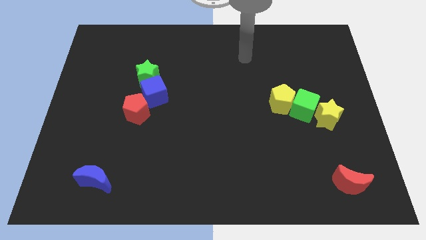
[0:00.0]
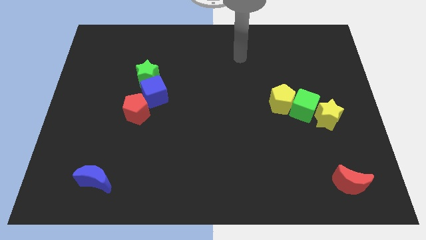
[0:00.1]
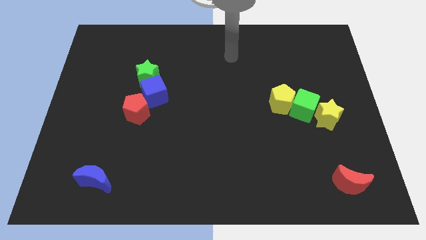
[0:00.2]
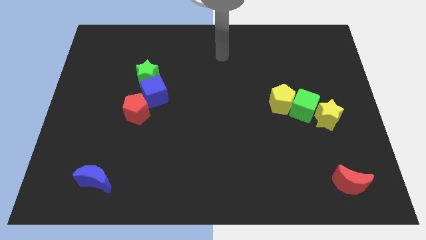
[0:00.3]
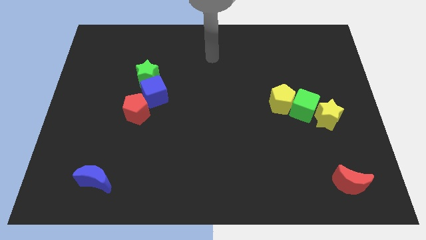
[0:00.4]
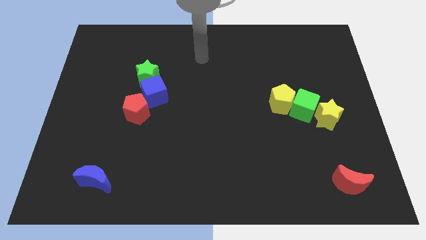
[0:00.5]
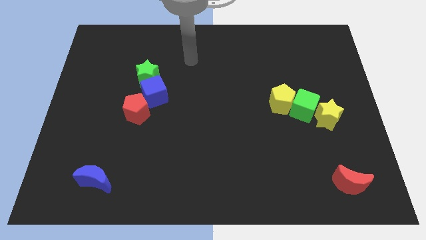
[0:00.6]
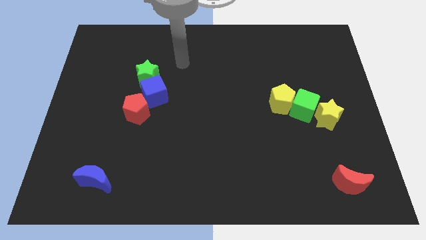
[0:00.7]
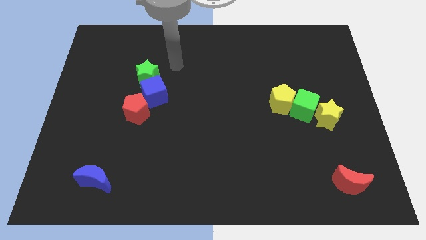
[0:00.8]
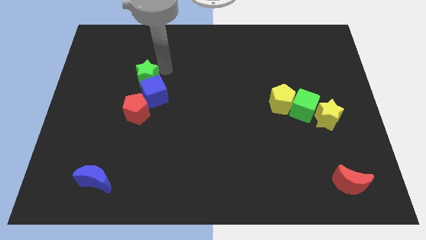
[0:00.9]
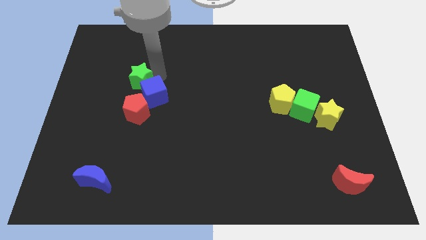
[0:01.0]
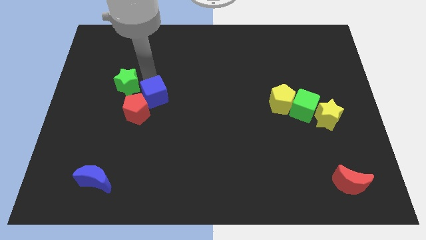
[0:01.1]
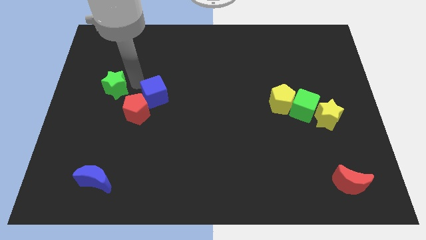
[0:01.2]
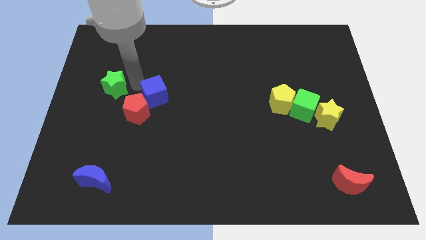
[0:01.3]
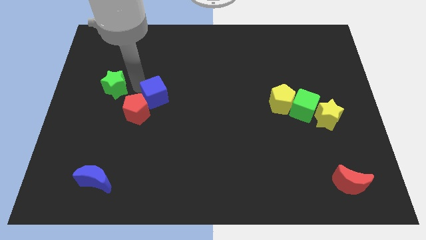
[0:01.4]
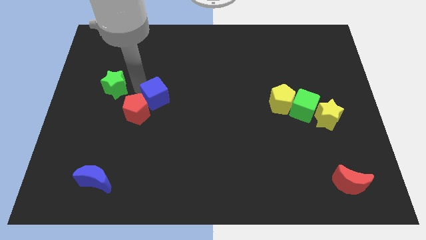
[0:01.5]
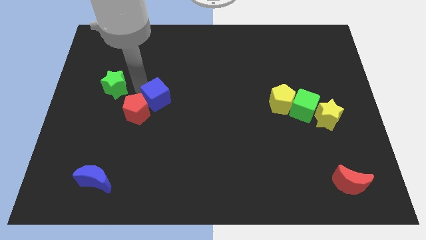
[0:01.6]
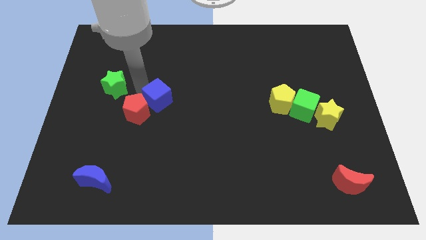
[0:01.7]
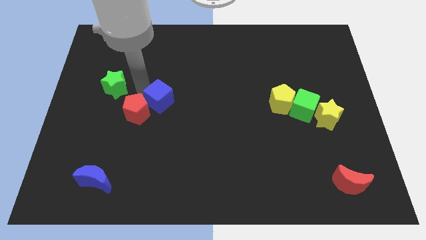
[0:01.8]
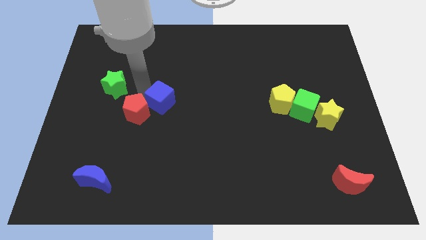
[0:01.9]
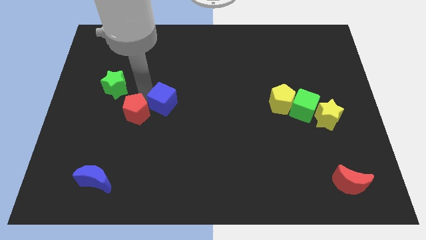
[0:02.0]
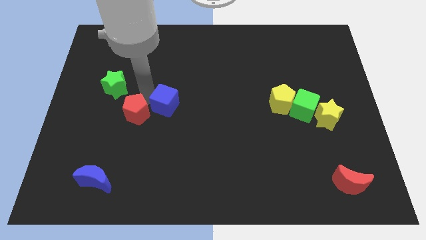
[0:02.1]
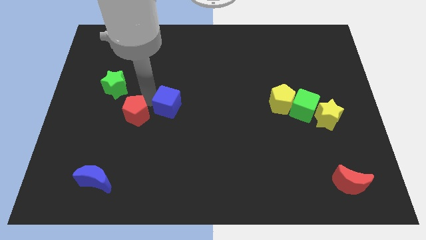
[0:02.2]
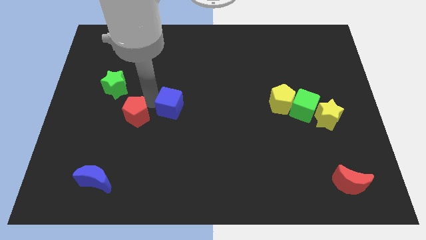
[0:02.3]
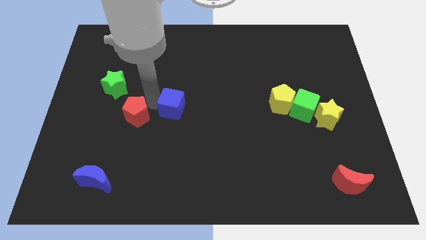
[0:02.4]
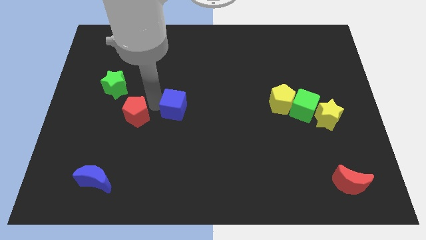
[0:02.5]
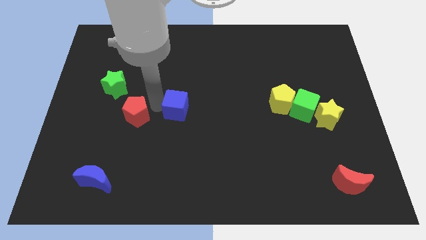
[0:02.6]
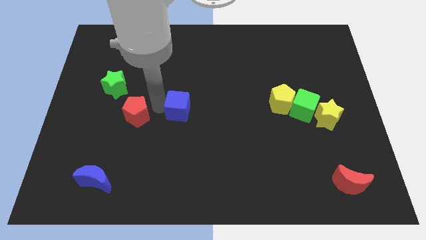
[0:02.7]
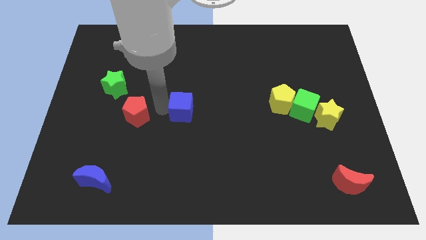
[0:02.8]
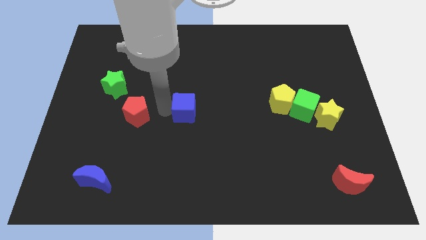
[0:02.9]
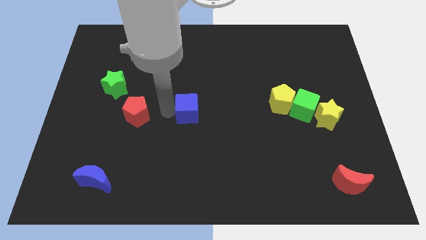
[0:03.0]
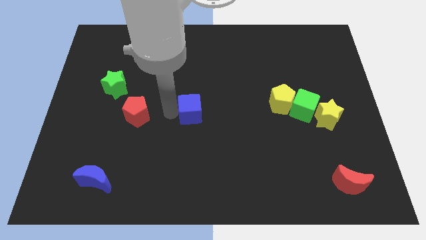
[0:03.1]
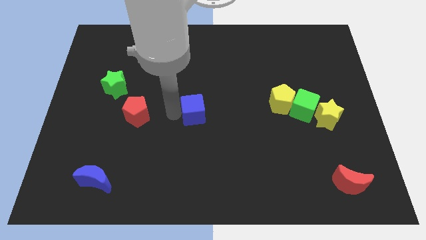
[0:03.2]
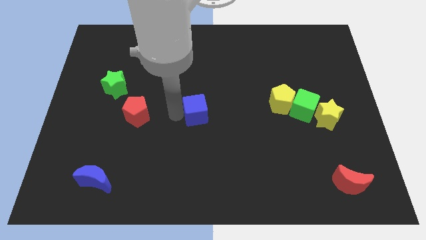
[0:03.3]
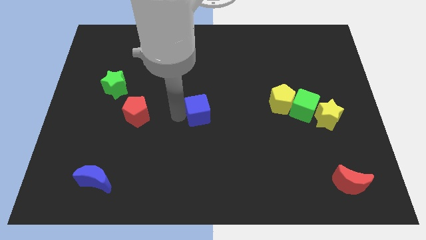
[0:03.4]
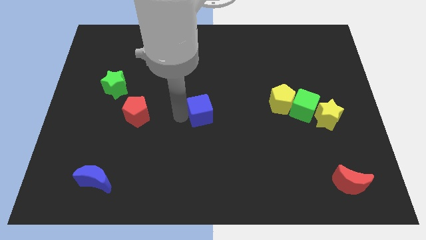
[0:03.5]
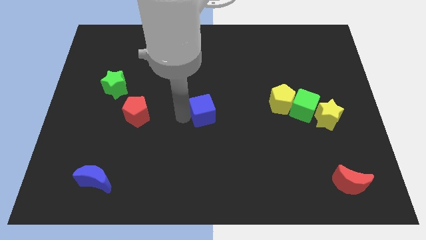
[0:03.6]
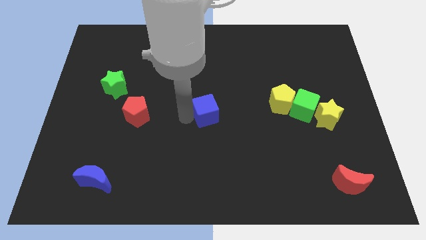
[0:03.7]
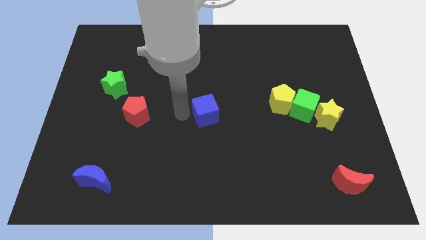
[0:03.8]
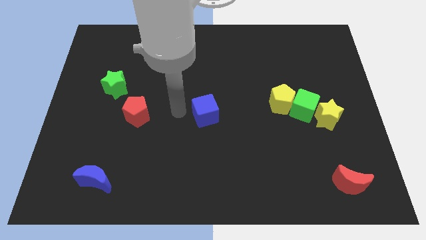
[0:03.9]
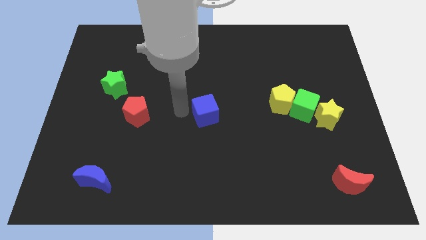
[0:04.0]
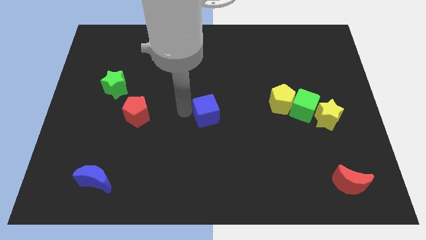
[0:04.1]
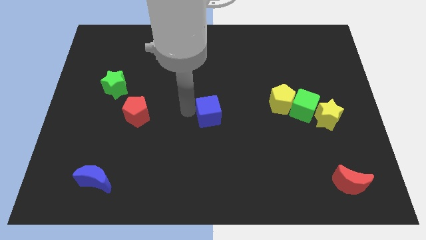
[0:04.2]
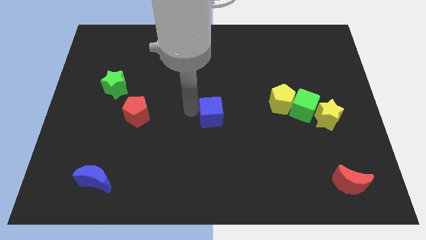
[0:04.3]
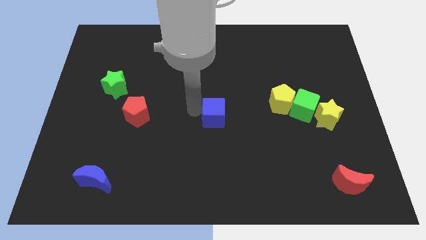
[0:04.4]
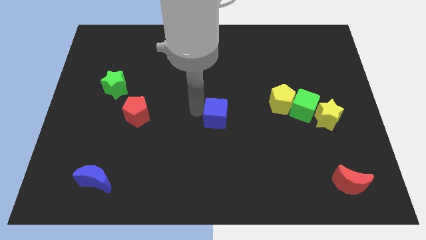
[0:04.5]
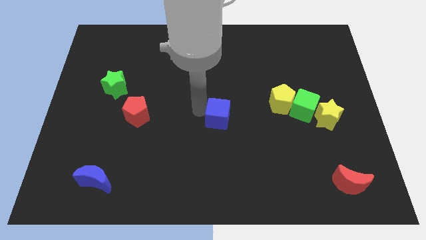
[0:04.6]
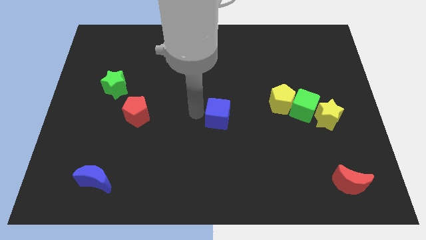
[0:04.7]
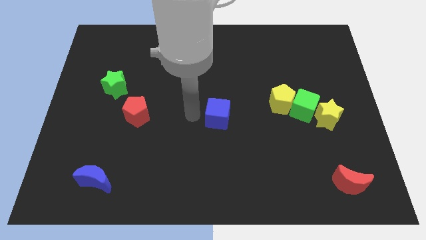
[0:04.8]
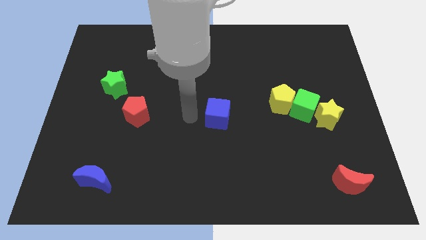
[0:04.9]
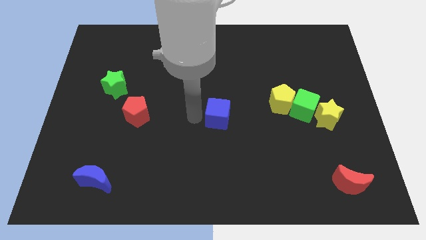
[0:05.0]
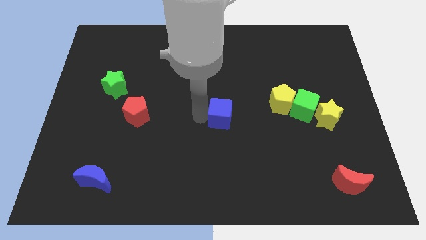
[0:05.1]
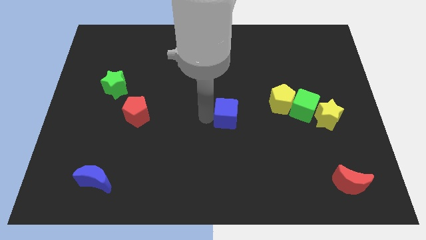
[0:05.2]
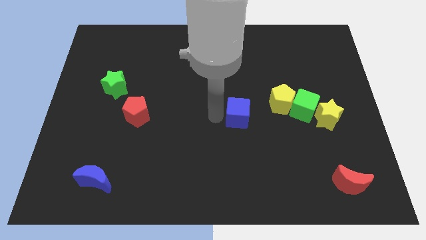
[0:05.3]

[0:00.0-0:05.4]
move the blue cube to the bottom left of the yellow pentagon

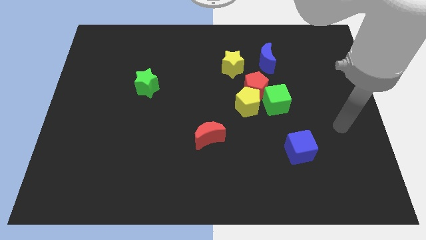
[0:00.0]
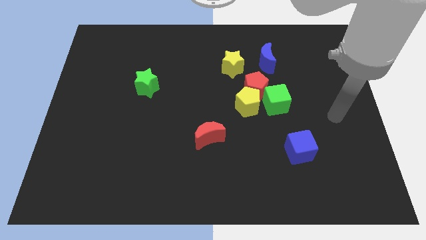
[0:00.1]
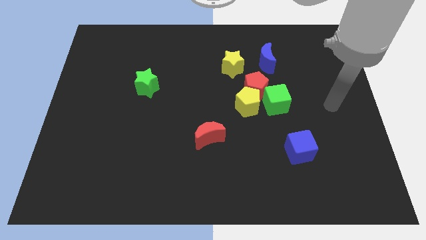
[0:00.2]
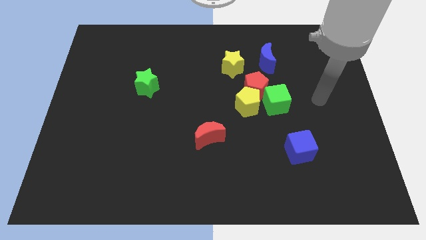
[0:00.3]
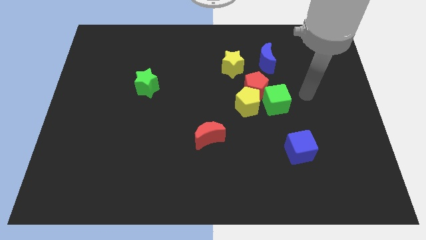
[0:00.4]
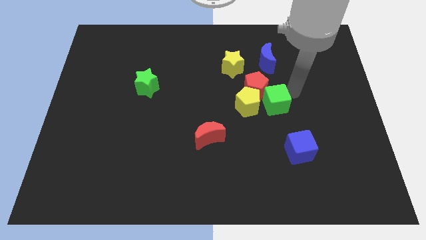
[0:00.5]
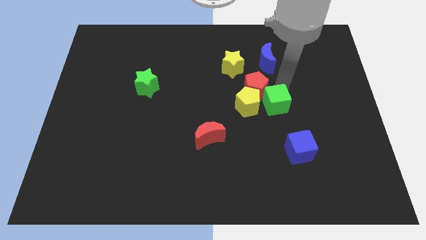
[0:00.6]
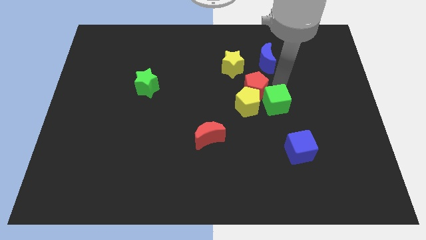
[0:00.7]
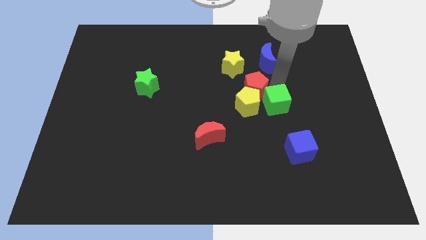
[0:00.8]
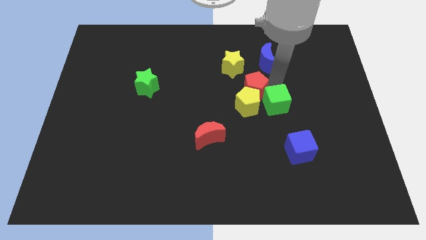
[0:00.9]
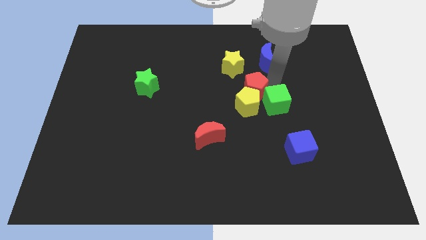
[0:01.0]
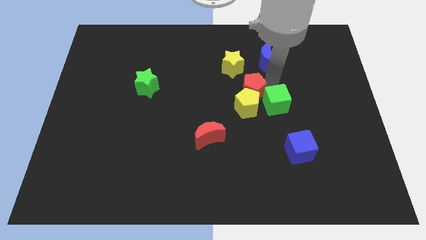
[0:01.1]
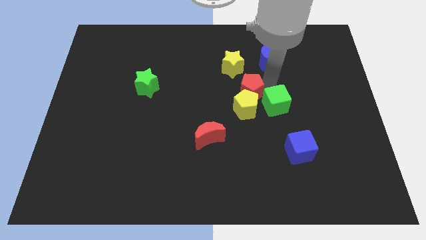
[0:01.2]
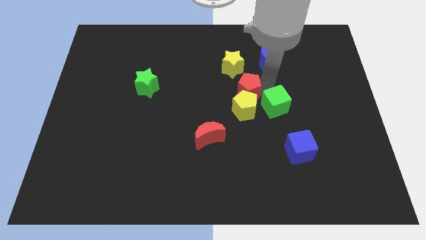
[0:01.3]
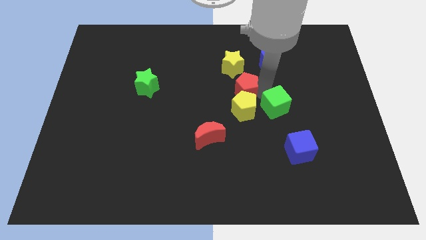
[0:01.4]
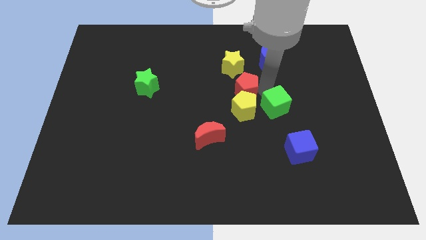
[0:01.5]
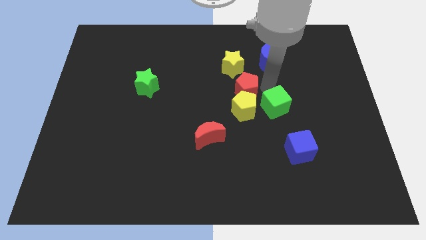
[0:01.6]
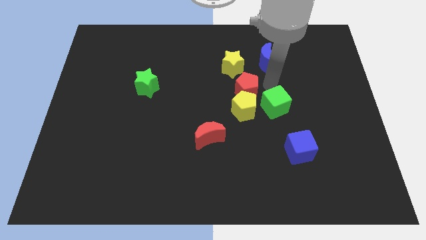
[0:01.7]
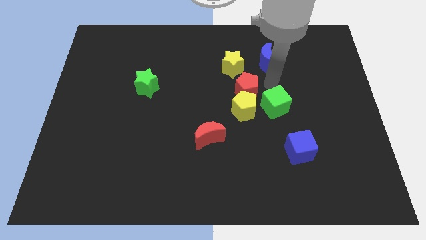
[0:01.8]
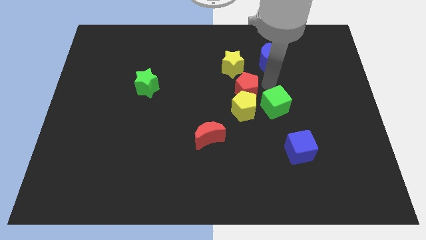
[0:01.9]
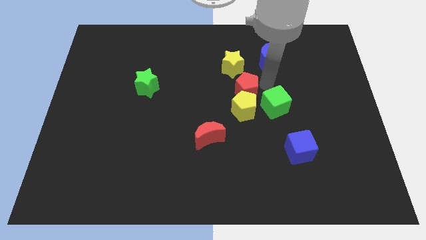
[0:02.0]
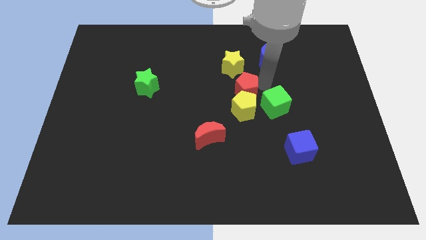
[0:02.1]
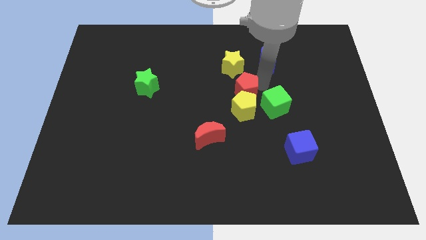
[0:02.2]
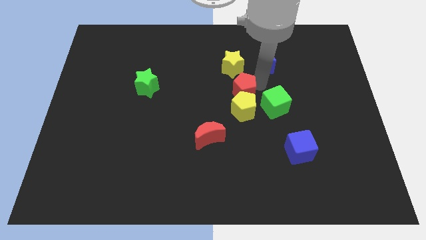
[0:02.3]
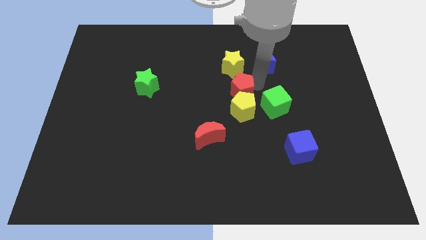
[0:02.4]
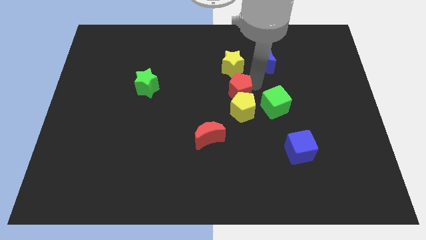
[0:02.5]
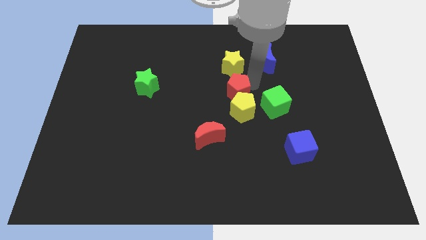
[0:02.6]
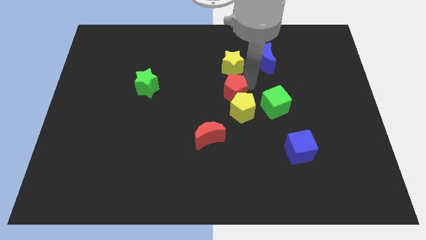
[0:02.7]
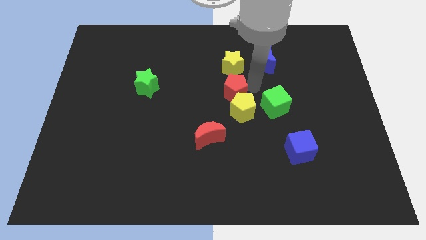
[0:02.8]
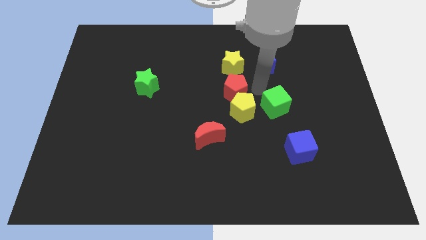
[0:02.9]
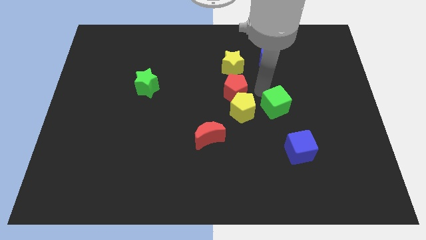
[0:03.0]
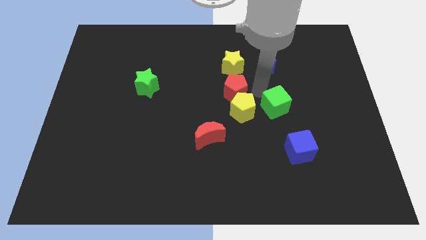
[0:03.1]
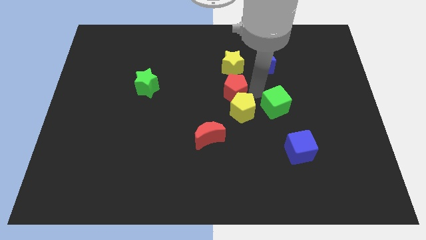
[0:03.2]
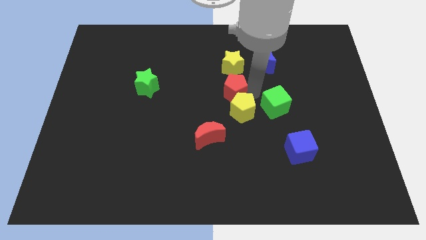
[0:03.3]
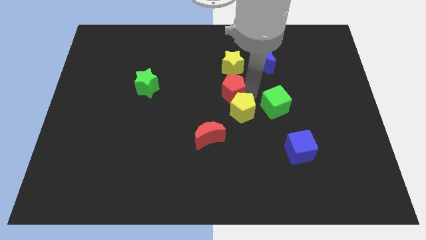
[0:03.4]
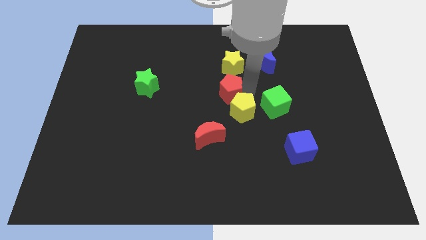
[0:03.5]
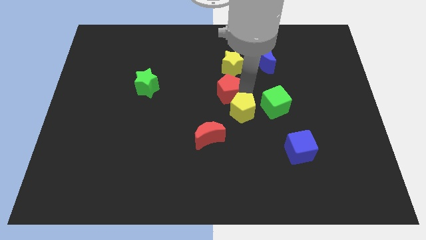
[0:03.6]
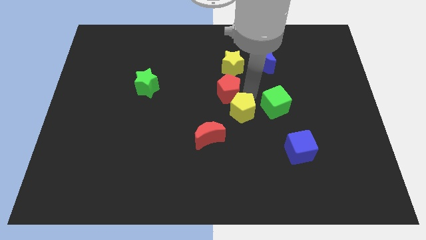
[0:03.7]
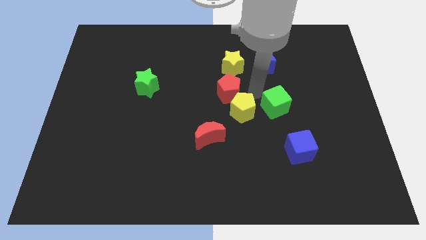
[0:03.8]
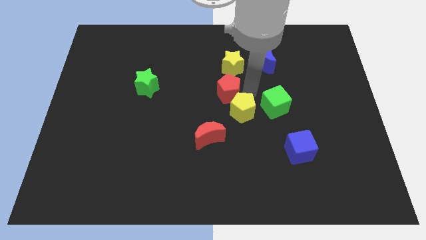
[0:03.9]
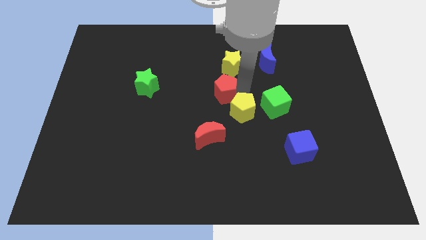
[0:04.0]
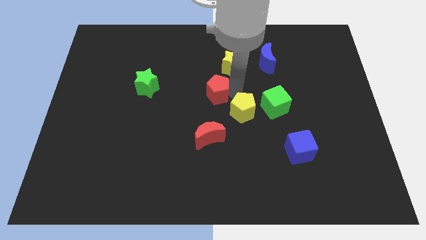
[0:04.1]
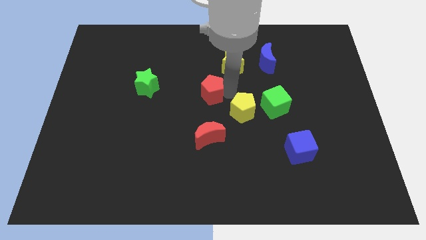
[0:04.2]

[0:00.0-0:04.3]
push the red pentagon right of the green star
